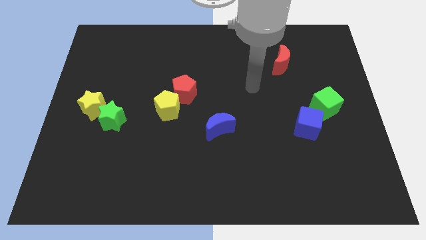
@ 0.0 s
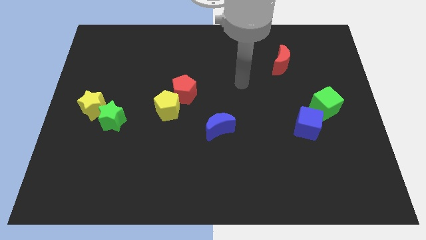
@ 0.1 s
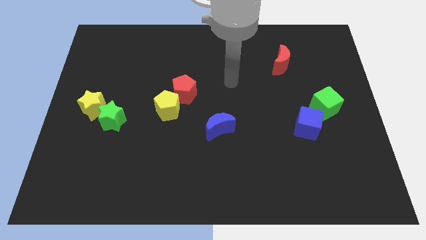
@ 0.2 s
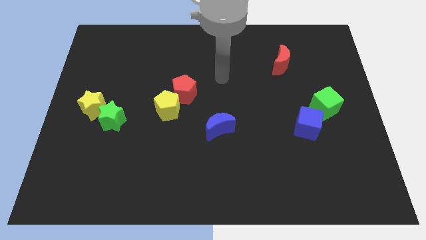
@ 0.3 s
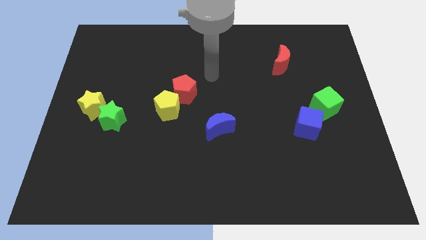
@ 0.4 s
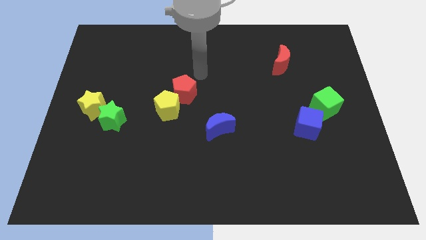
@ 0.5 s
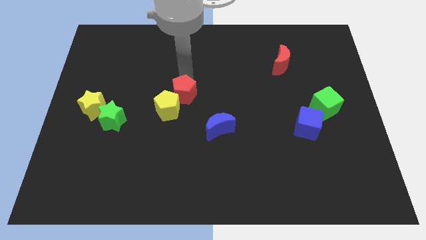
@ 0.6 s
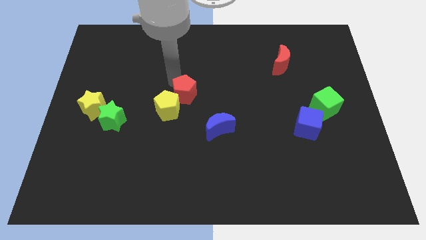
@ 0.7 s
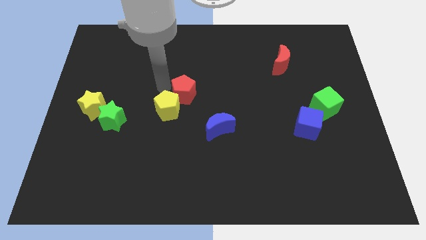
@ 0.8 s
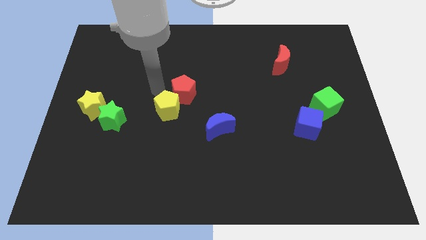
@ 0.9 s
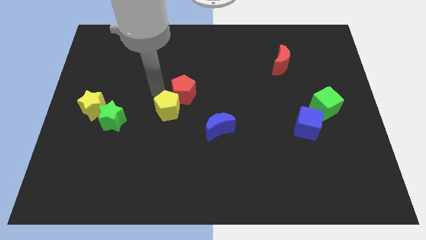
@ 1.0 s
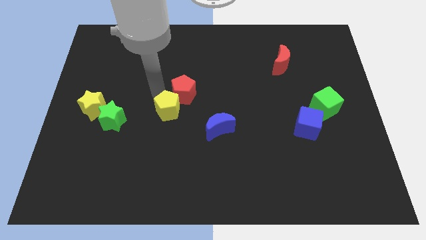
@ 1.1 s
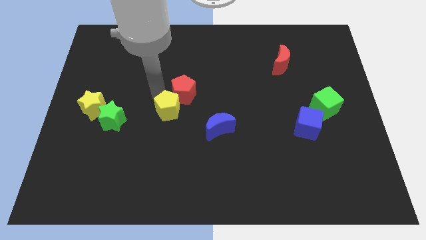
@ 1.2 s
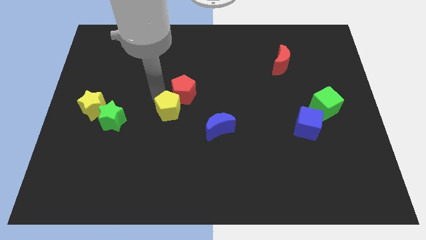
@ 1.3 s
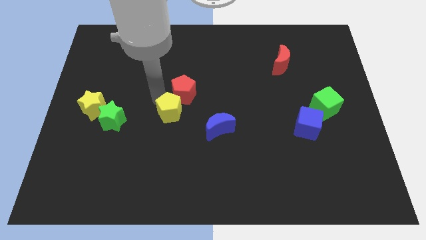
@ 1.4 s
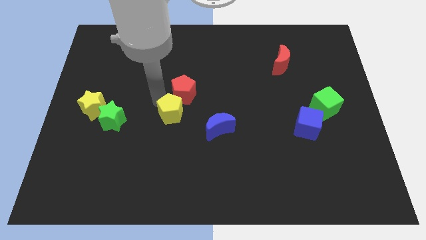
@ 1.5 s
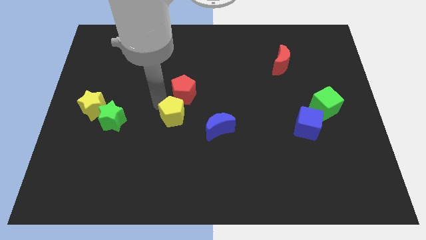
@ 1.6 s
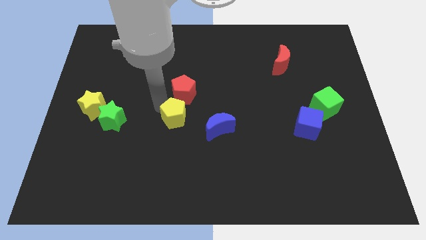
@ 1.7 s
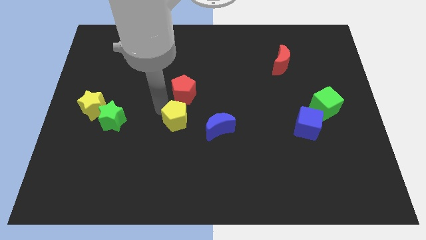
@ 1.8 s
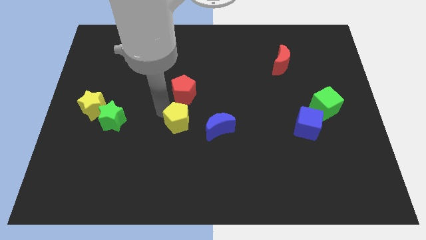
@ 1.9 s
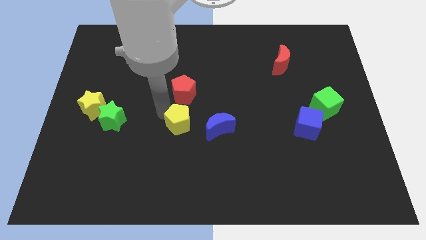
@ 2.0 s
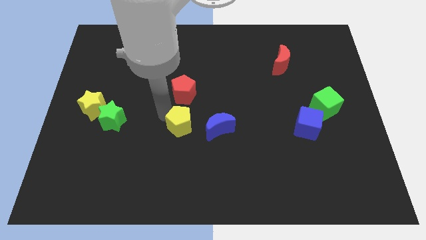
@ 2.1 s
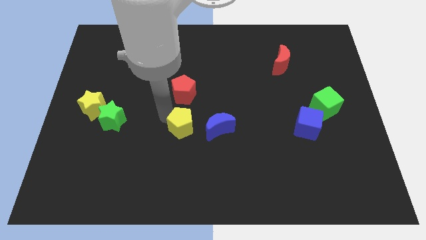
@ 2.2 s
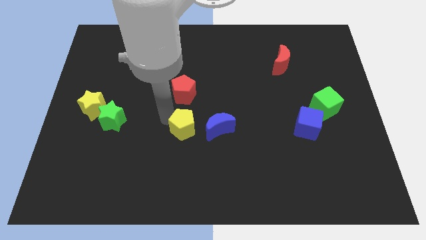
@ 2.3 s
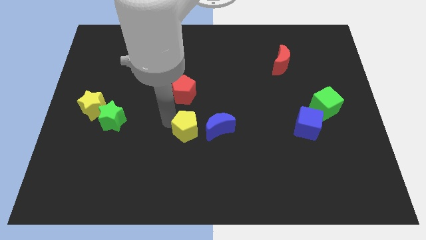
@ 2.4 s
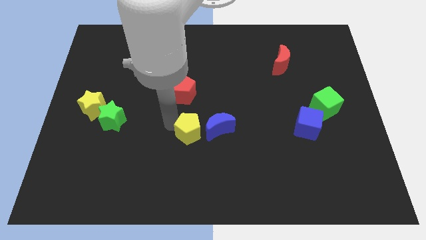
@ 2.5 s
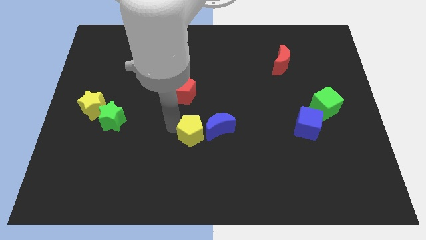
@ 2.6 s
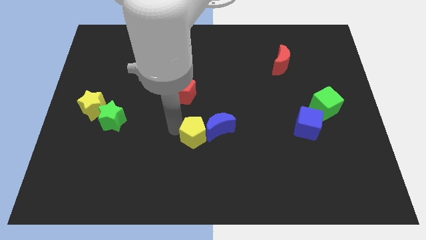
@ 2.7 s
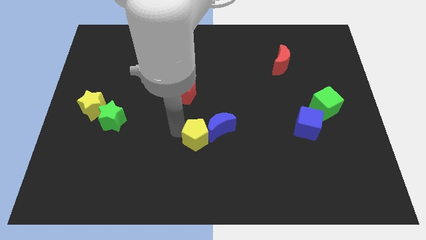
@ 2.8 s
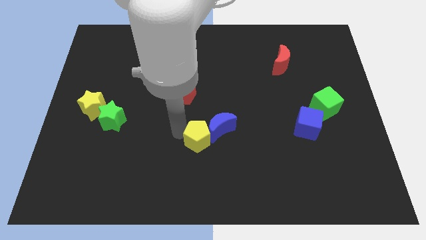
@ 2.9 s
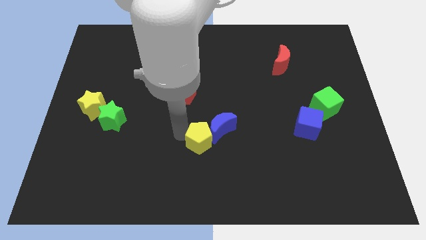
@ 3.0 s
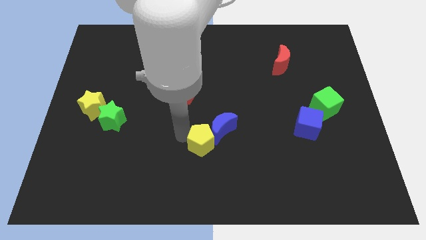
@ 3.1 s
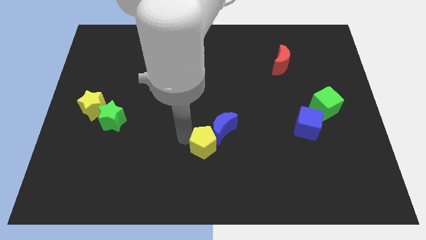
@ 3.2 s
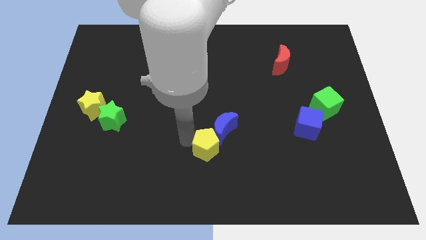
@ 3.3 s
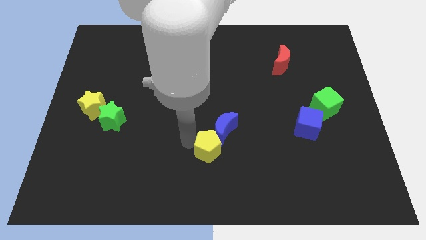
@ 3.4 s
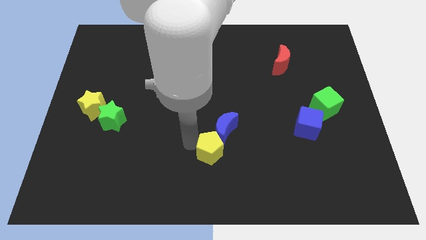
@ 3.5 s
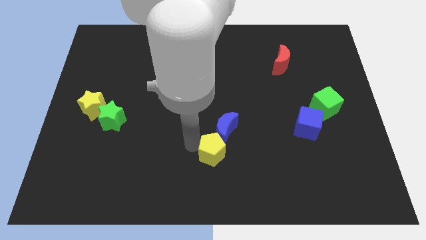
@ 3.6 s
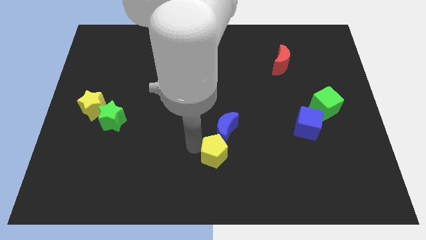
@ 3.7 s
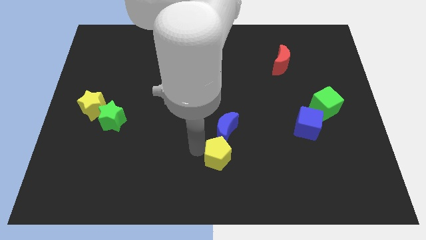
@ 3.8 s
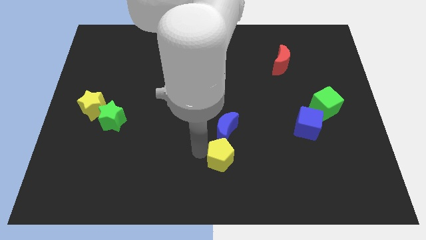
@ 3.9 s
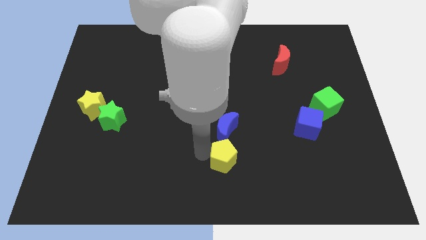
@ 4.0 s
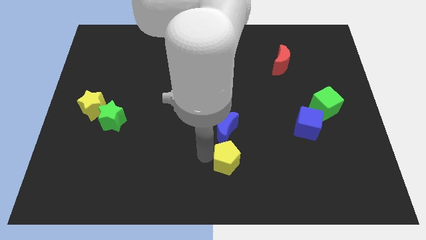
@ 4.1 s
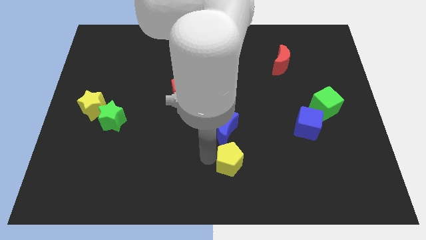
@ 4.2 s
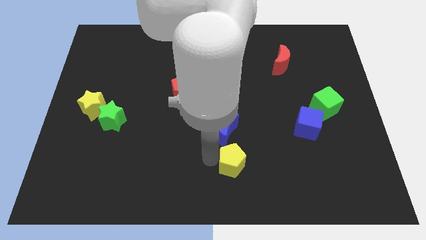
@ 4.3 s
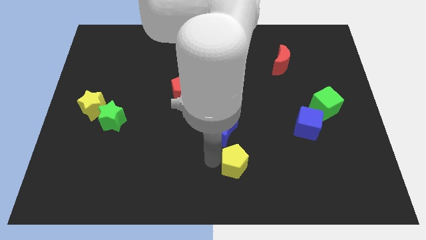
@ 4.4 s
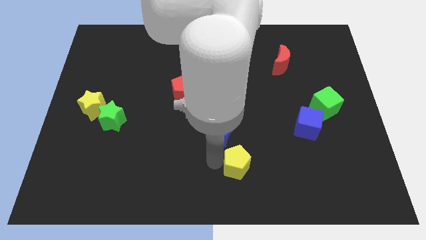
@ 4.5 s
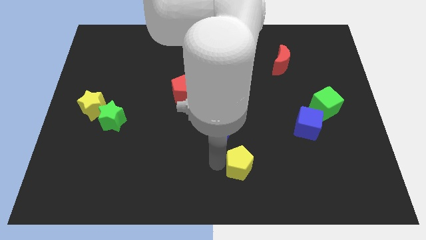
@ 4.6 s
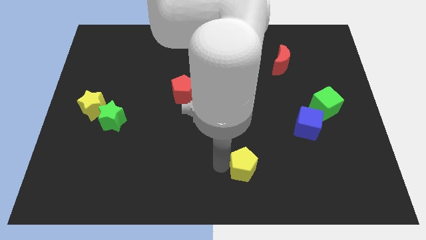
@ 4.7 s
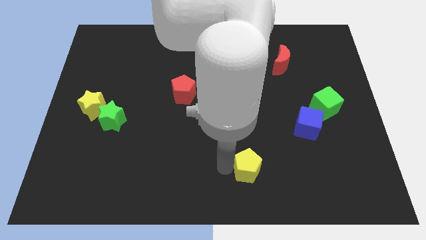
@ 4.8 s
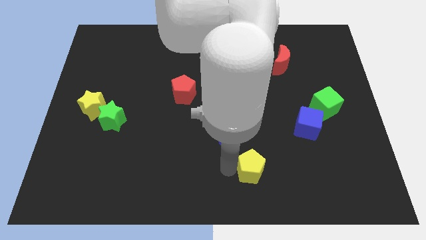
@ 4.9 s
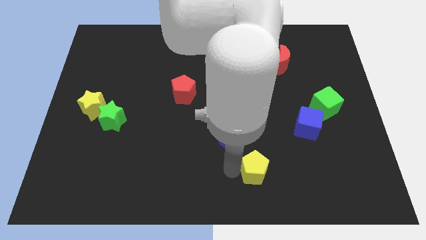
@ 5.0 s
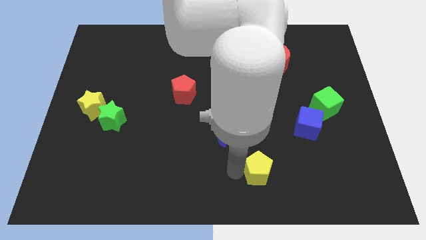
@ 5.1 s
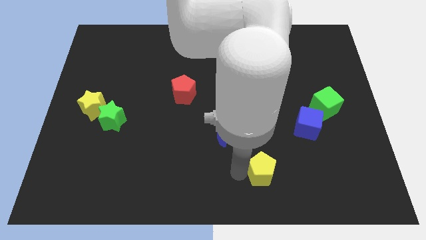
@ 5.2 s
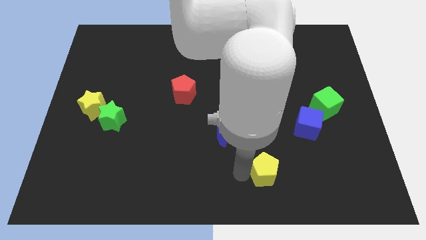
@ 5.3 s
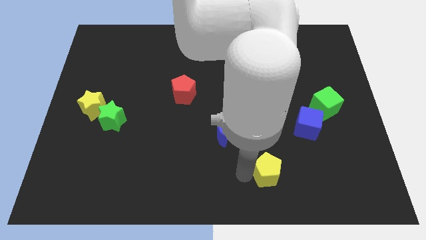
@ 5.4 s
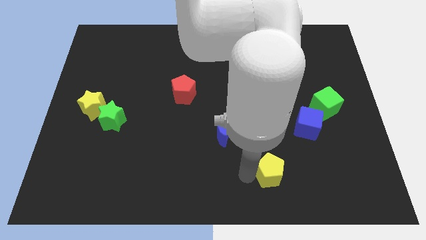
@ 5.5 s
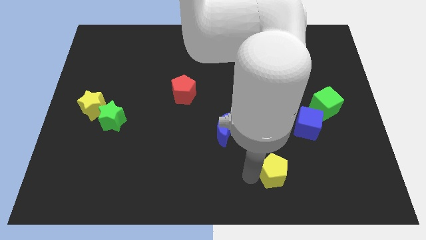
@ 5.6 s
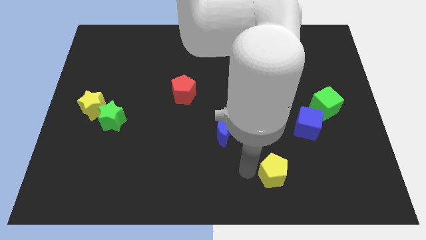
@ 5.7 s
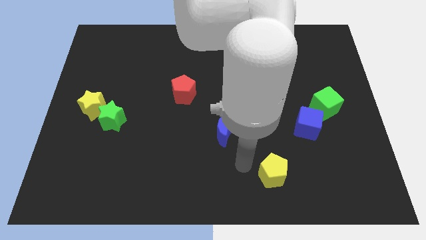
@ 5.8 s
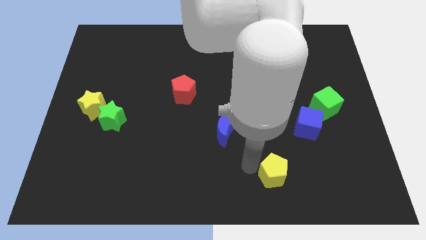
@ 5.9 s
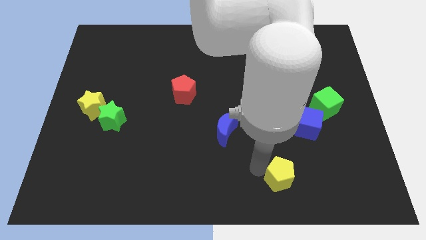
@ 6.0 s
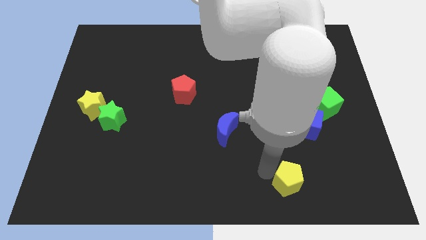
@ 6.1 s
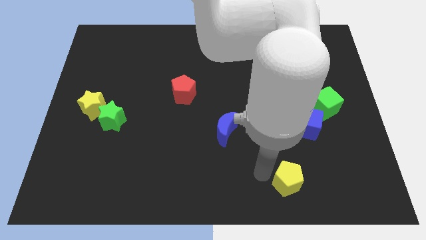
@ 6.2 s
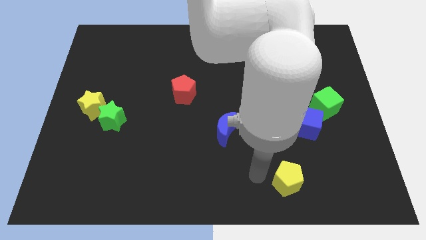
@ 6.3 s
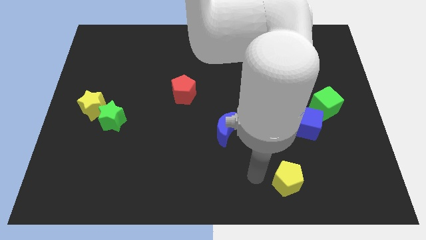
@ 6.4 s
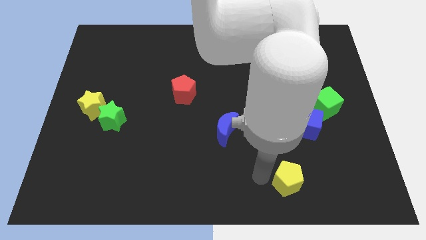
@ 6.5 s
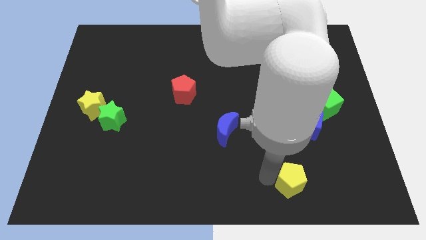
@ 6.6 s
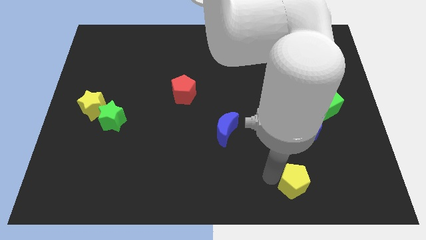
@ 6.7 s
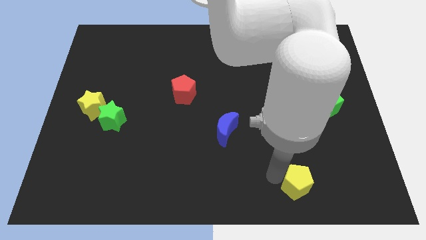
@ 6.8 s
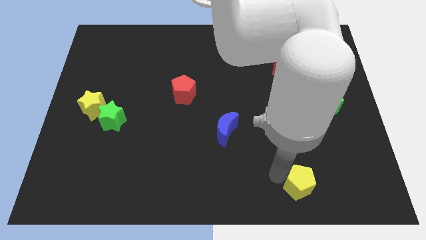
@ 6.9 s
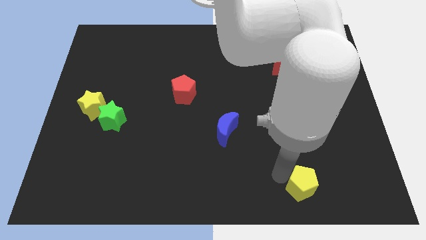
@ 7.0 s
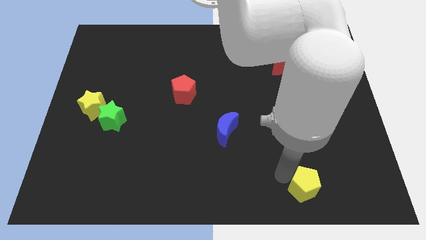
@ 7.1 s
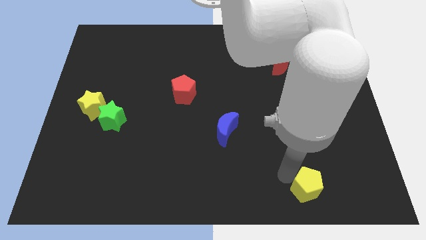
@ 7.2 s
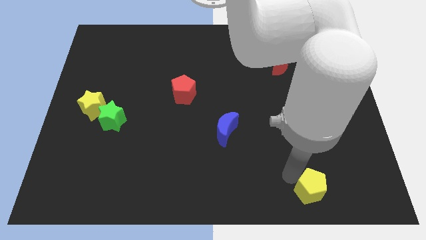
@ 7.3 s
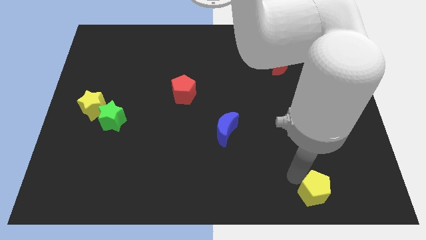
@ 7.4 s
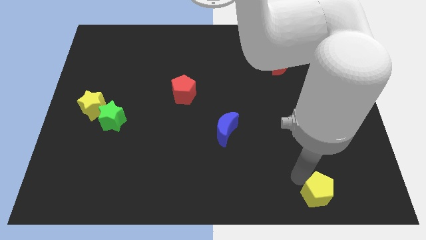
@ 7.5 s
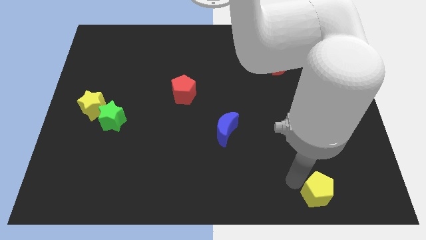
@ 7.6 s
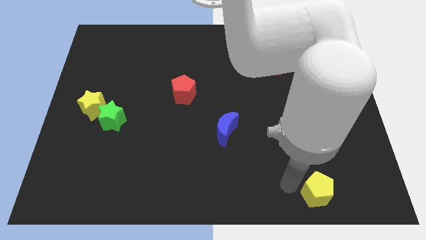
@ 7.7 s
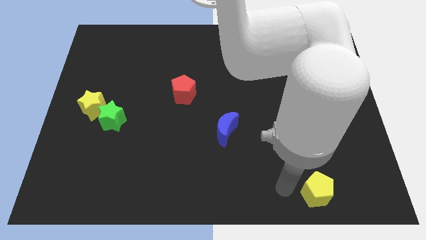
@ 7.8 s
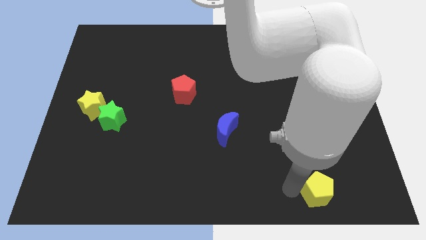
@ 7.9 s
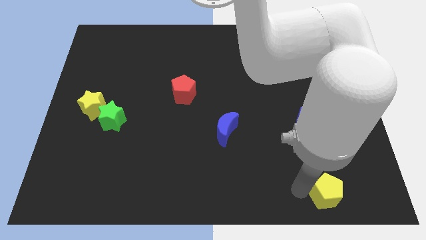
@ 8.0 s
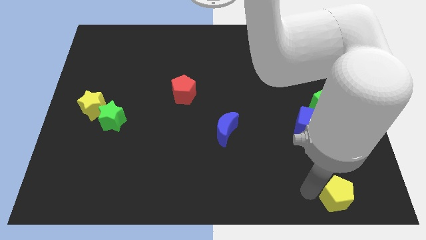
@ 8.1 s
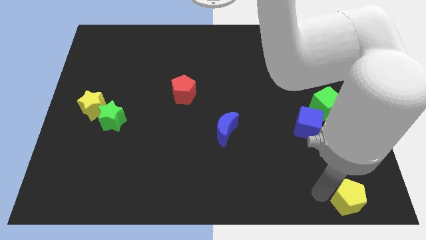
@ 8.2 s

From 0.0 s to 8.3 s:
push the yellow pentagon to the lower right corner
